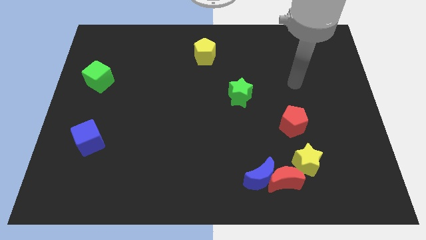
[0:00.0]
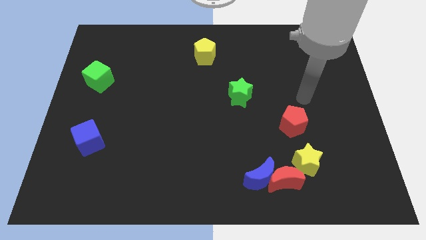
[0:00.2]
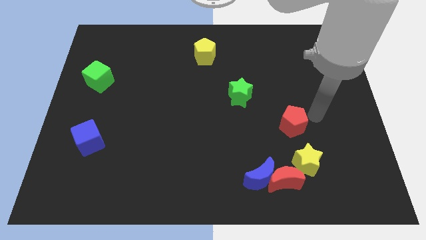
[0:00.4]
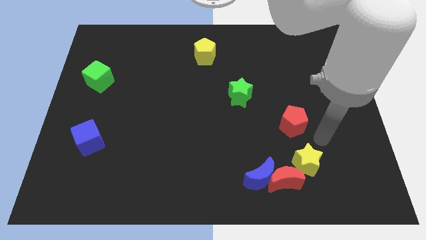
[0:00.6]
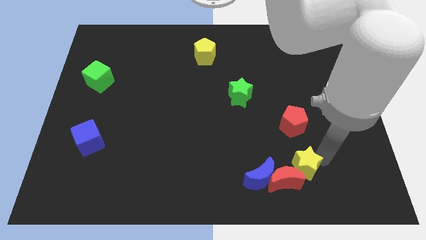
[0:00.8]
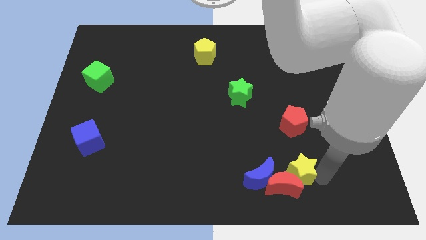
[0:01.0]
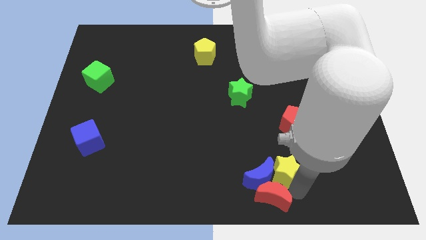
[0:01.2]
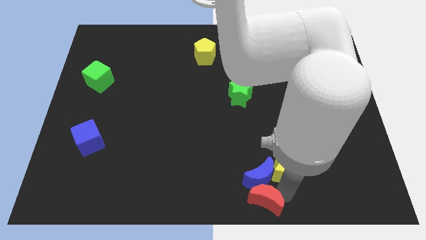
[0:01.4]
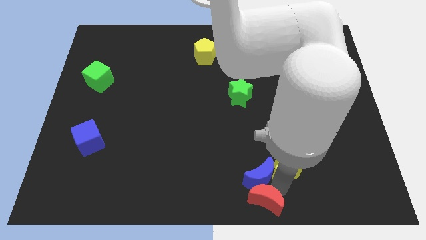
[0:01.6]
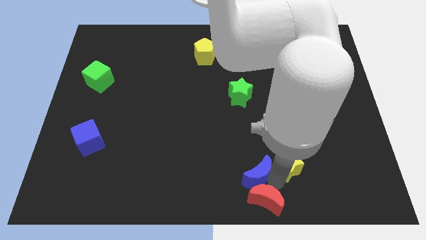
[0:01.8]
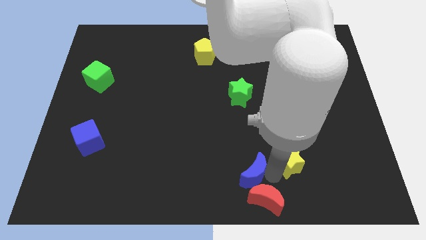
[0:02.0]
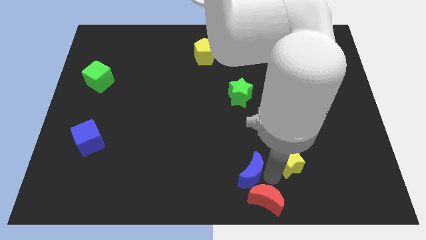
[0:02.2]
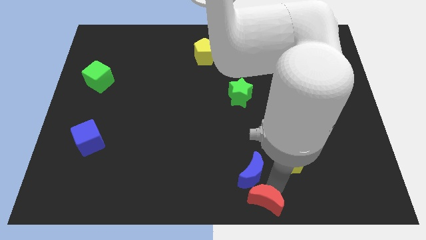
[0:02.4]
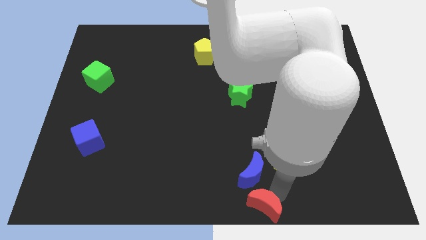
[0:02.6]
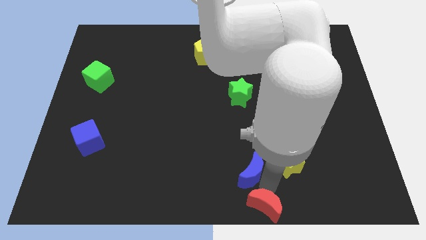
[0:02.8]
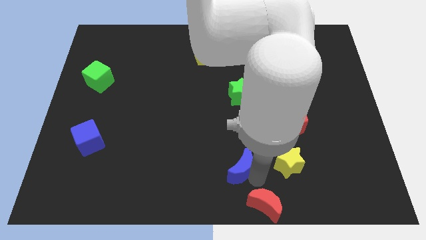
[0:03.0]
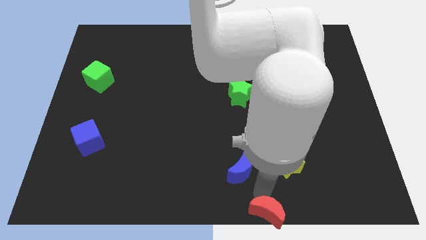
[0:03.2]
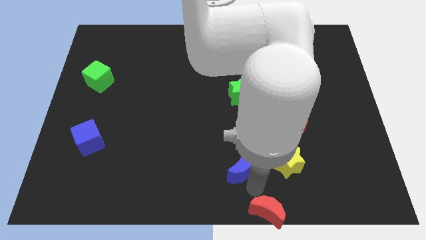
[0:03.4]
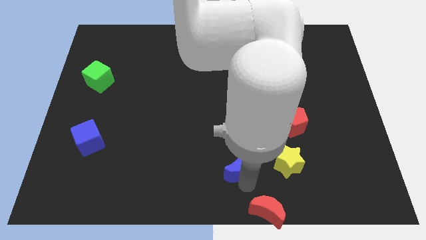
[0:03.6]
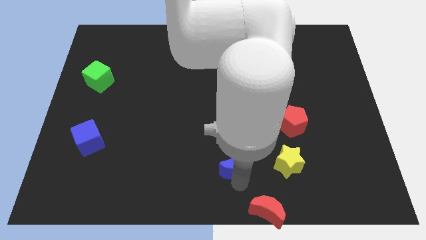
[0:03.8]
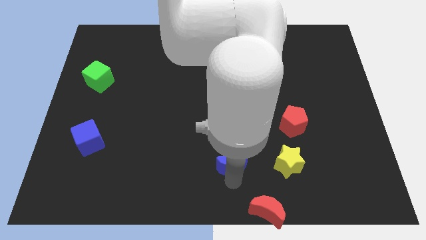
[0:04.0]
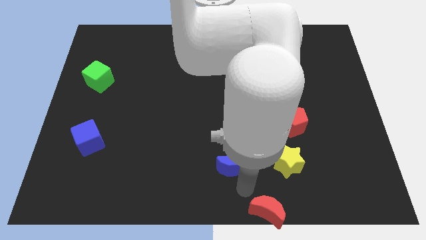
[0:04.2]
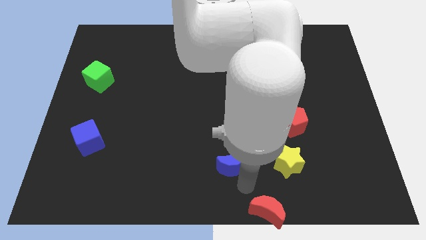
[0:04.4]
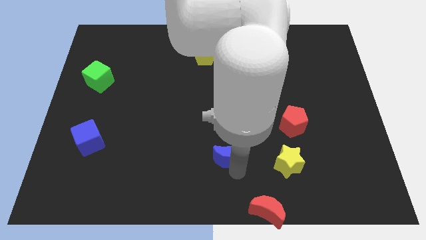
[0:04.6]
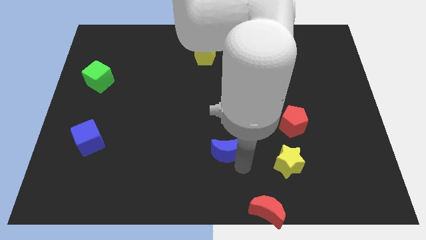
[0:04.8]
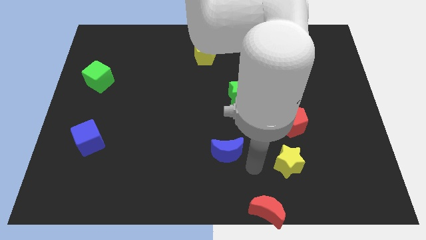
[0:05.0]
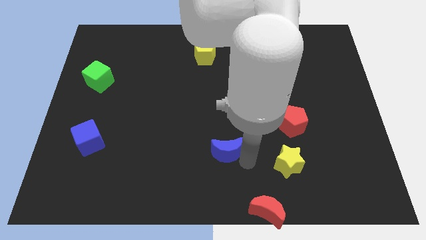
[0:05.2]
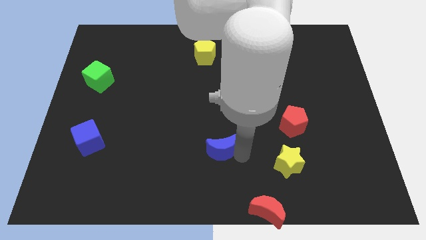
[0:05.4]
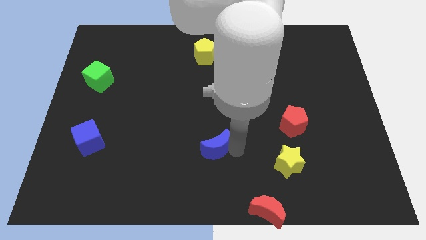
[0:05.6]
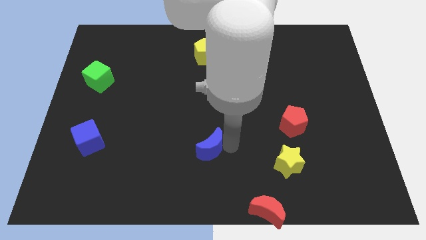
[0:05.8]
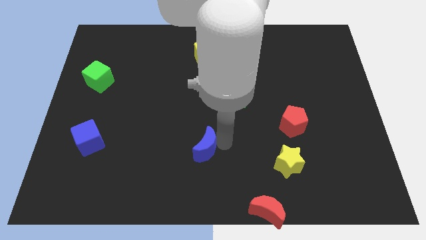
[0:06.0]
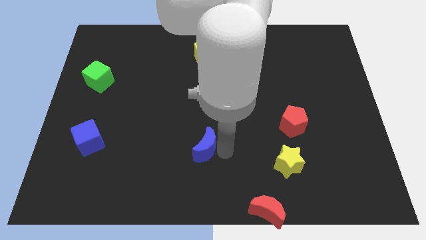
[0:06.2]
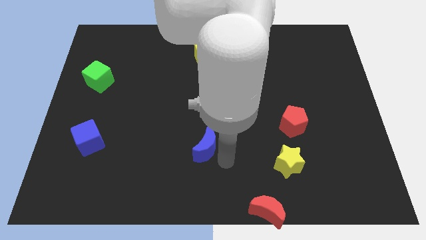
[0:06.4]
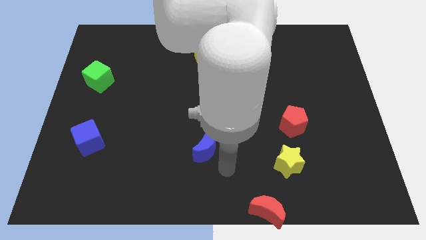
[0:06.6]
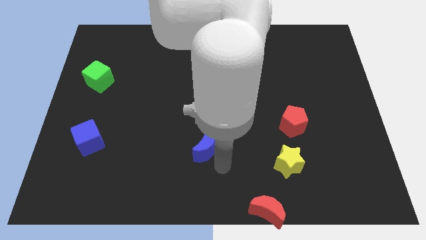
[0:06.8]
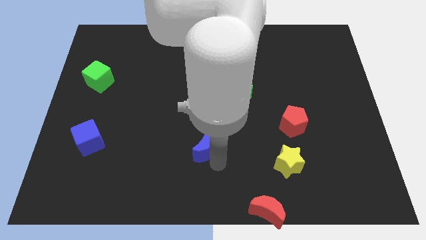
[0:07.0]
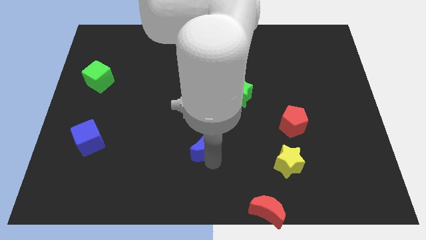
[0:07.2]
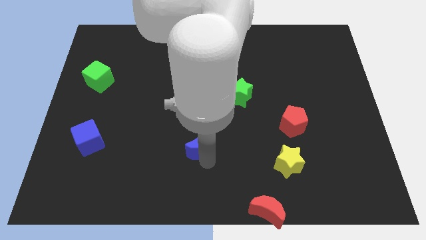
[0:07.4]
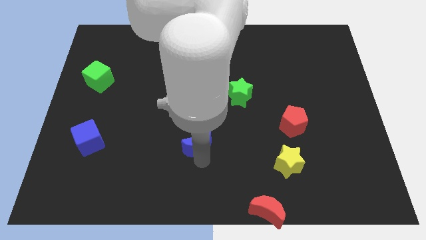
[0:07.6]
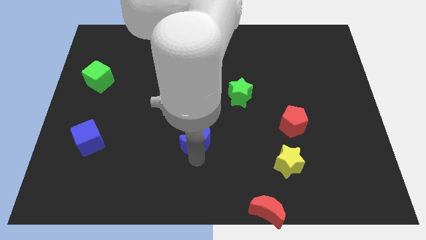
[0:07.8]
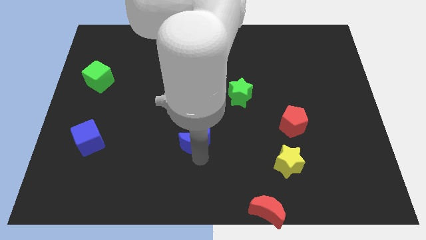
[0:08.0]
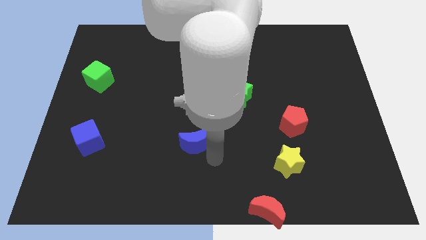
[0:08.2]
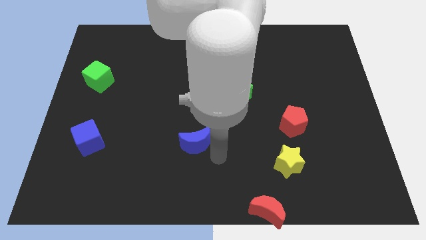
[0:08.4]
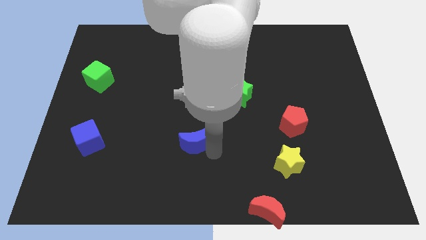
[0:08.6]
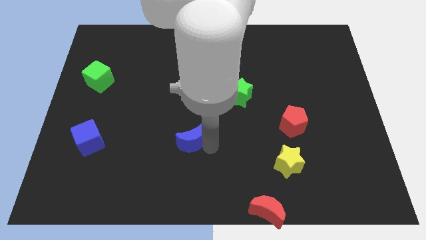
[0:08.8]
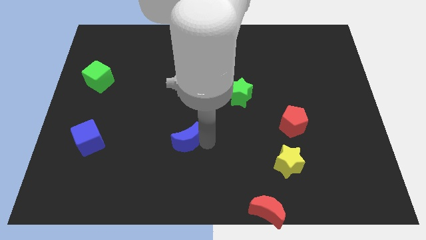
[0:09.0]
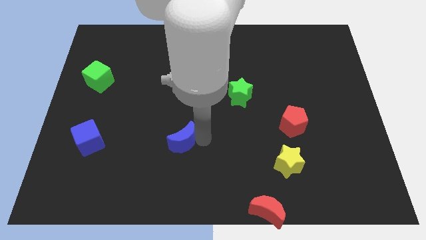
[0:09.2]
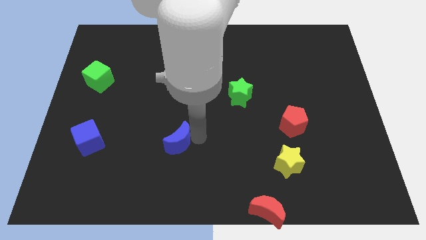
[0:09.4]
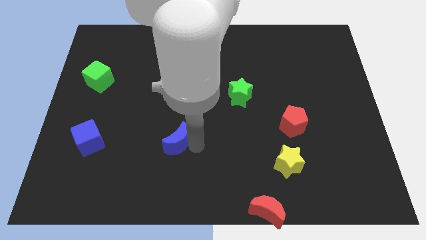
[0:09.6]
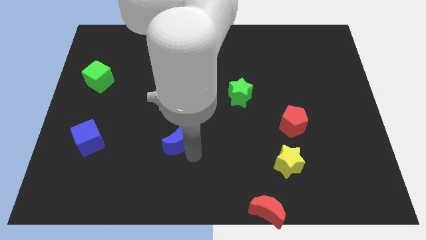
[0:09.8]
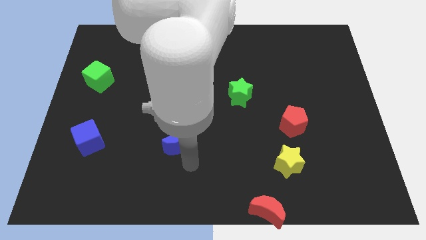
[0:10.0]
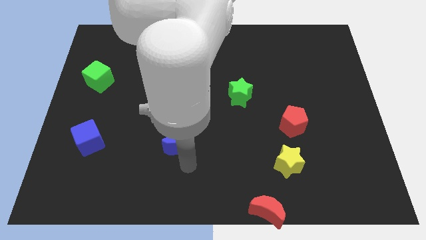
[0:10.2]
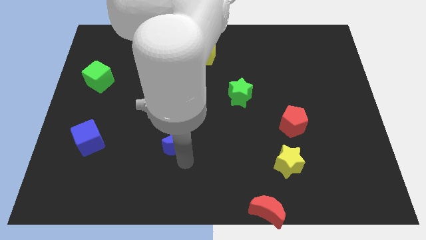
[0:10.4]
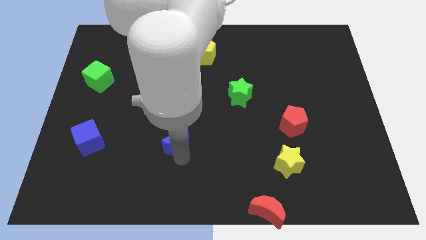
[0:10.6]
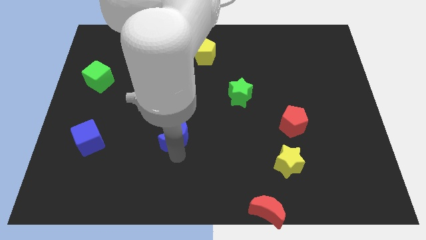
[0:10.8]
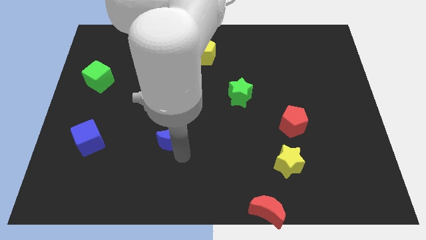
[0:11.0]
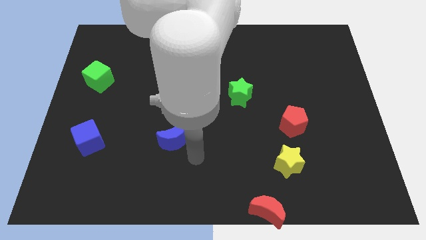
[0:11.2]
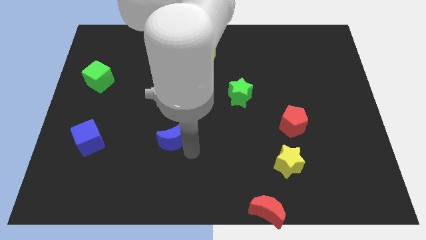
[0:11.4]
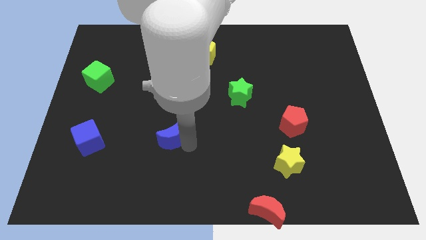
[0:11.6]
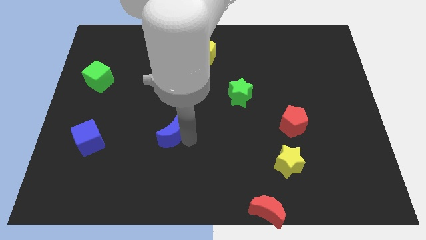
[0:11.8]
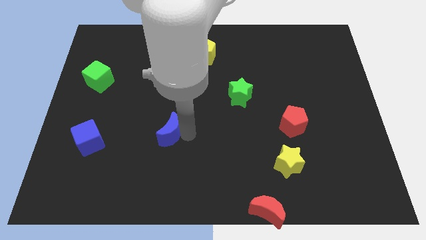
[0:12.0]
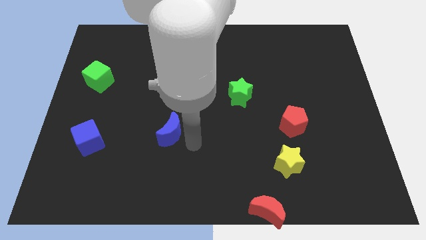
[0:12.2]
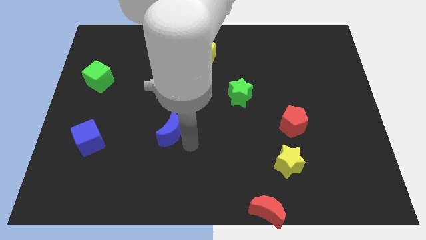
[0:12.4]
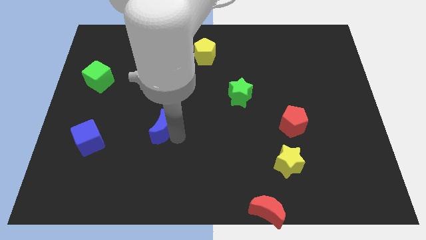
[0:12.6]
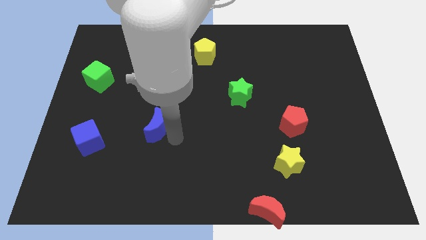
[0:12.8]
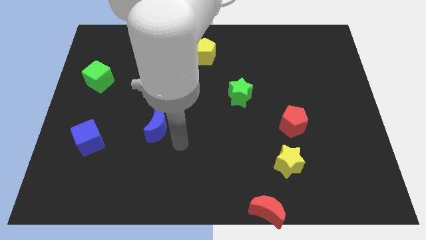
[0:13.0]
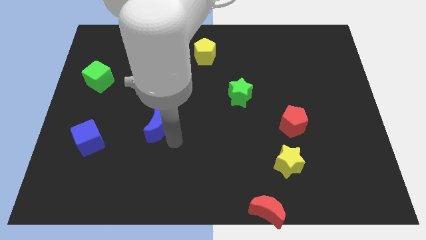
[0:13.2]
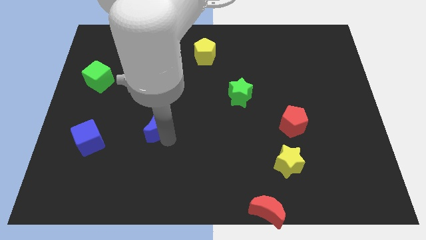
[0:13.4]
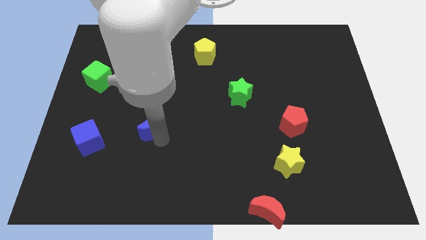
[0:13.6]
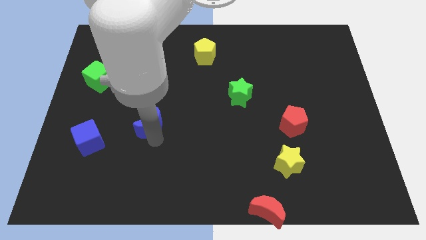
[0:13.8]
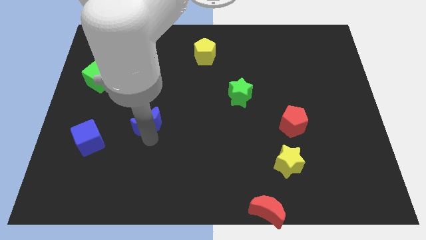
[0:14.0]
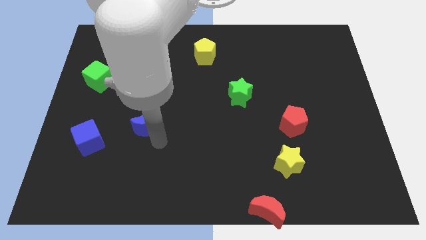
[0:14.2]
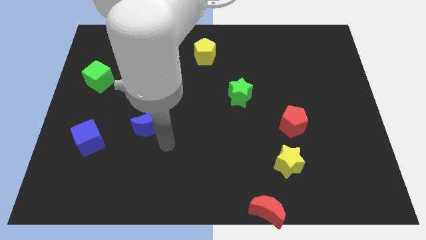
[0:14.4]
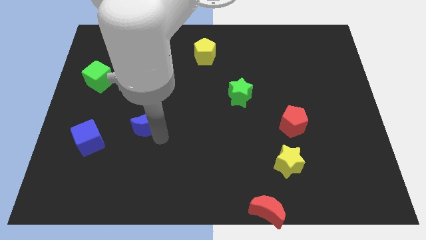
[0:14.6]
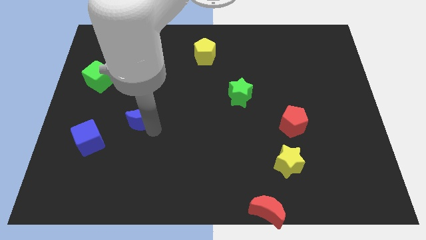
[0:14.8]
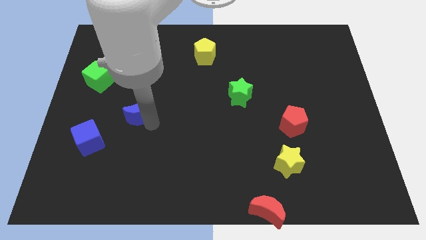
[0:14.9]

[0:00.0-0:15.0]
slide the blue moon to the top right of the blue cube
